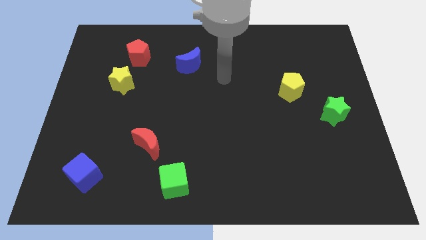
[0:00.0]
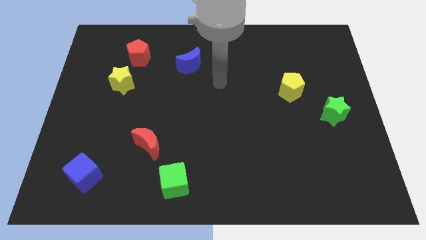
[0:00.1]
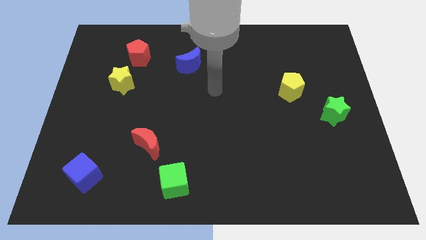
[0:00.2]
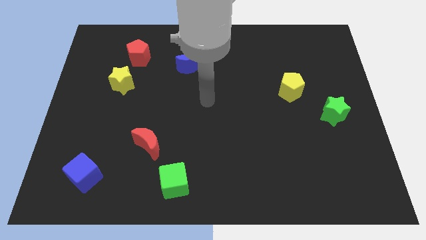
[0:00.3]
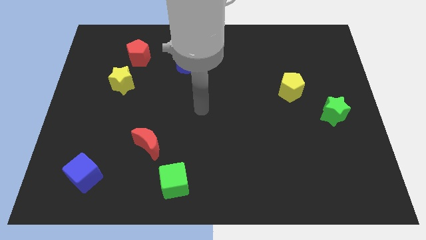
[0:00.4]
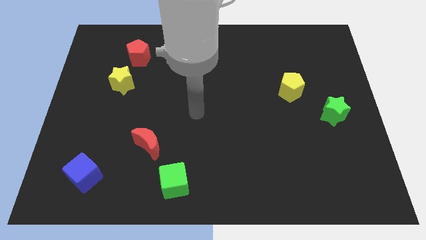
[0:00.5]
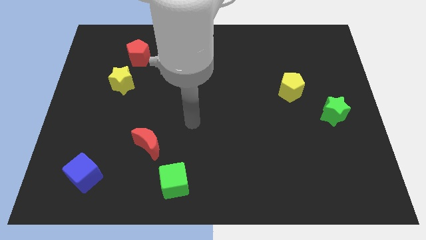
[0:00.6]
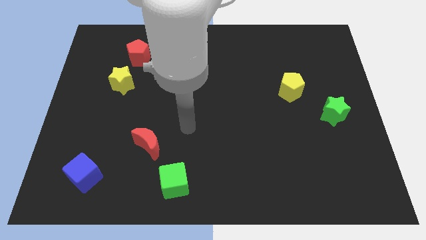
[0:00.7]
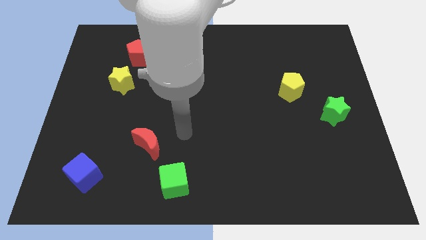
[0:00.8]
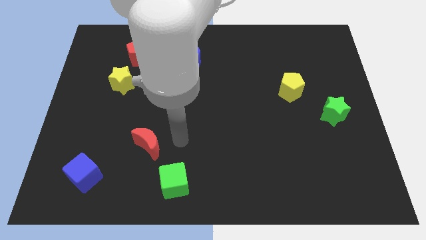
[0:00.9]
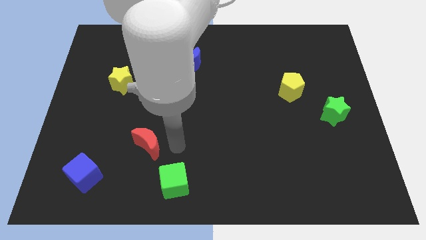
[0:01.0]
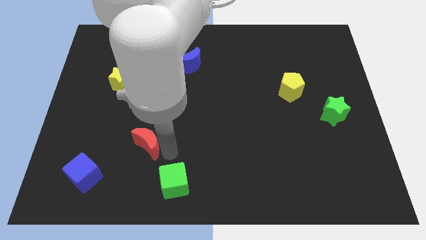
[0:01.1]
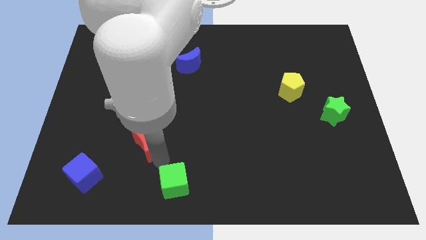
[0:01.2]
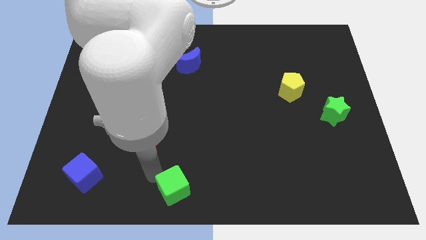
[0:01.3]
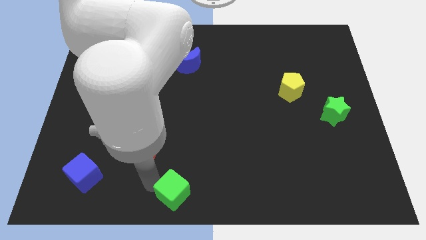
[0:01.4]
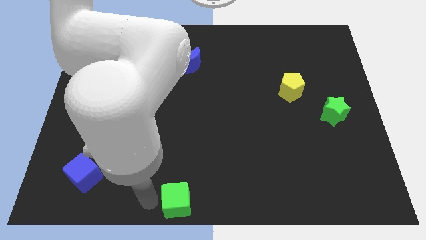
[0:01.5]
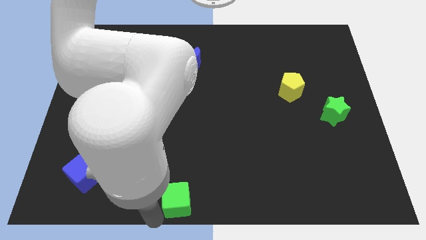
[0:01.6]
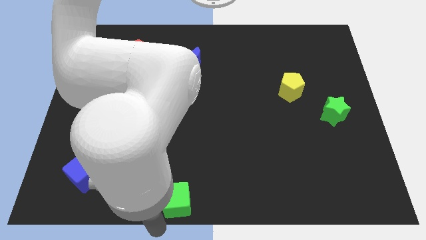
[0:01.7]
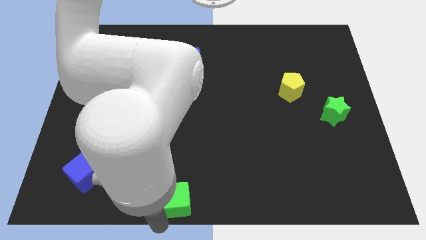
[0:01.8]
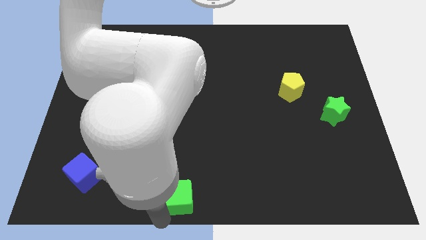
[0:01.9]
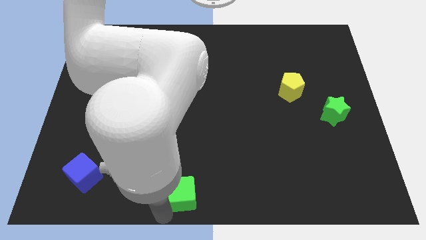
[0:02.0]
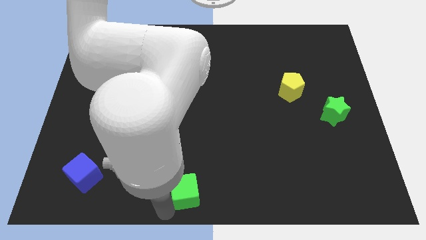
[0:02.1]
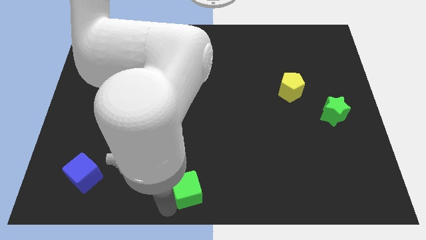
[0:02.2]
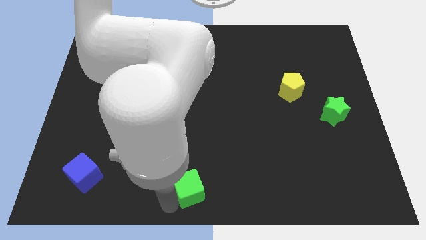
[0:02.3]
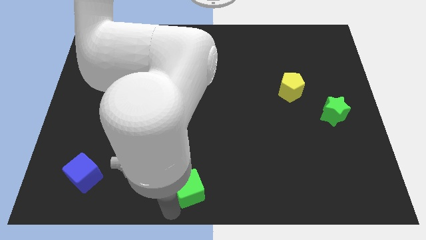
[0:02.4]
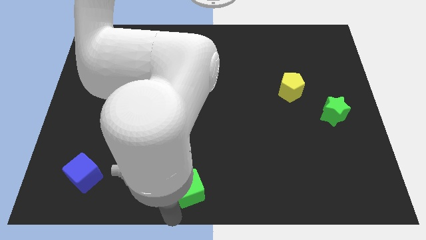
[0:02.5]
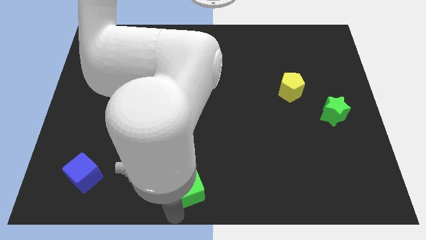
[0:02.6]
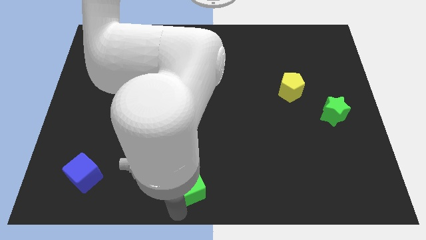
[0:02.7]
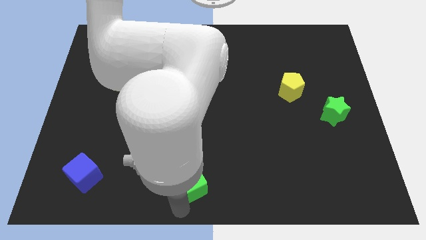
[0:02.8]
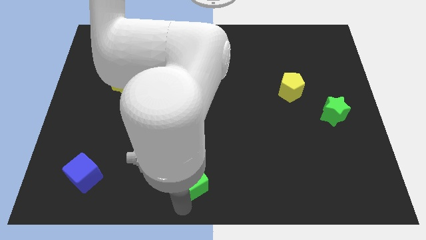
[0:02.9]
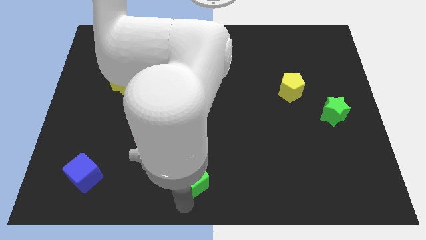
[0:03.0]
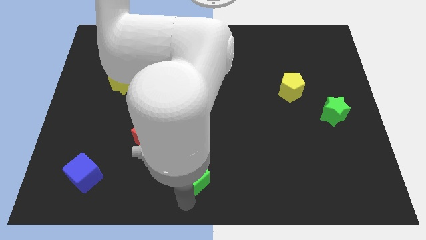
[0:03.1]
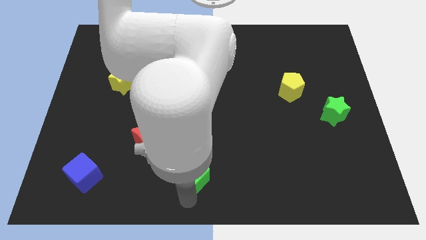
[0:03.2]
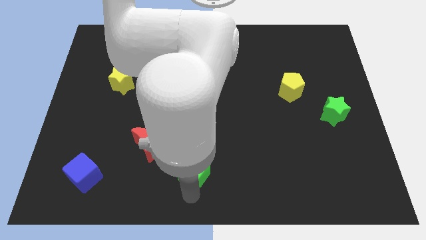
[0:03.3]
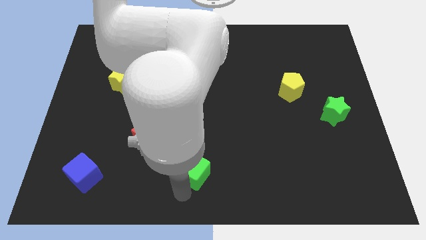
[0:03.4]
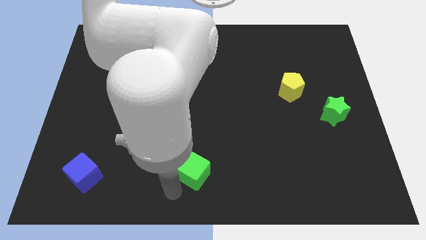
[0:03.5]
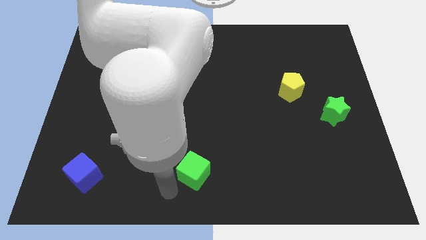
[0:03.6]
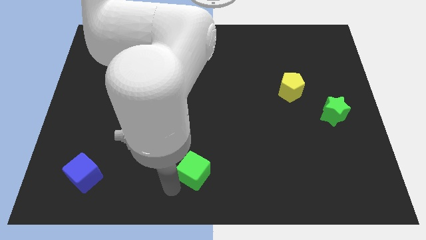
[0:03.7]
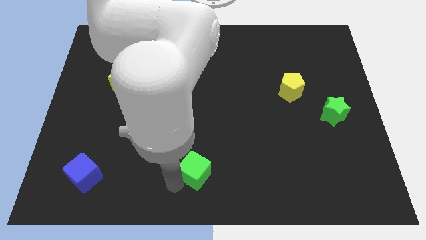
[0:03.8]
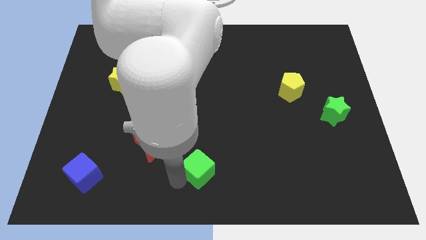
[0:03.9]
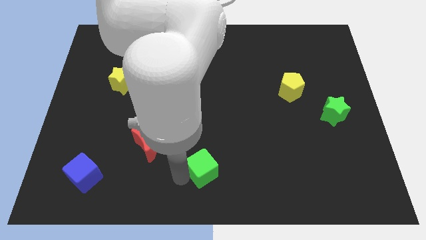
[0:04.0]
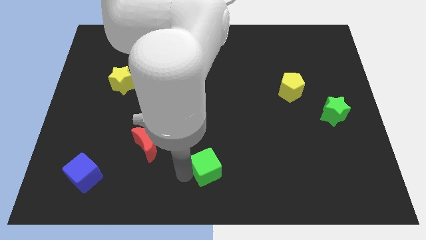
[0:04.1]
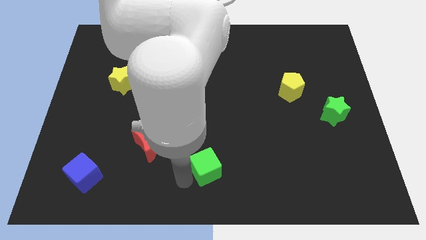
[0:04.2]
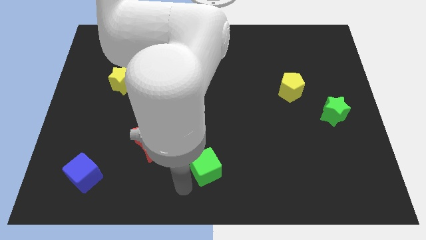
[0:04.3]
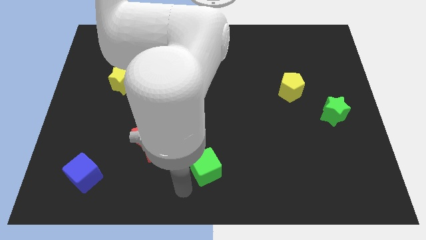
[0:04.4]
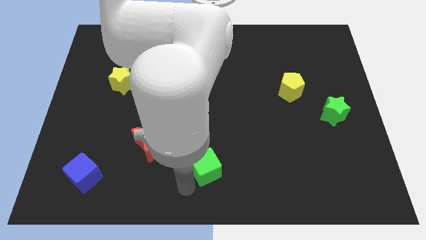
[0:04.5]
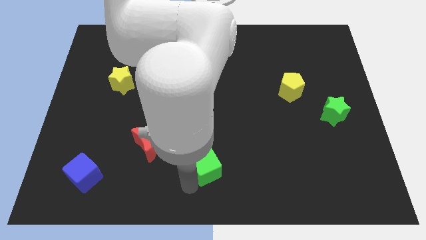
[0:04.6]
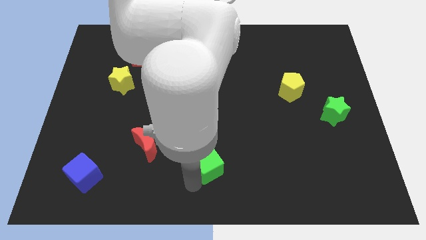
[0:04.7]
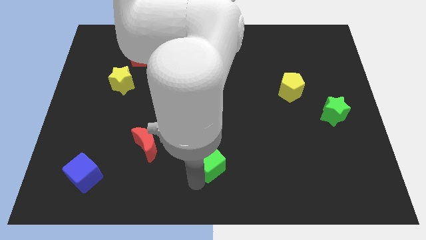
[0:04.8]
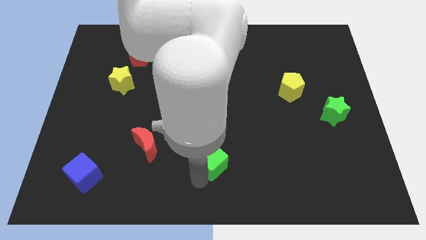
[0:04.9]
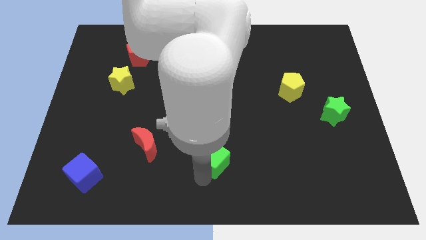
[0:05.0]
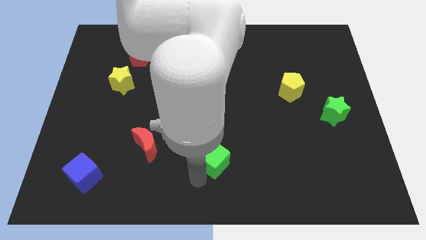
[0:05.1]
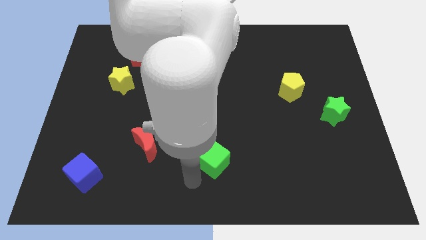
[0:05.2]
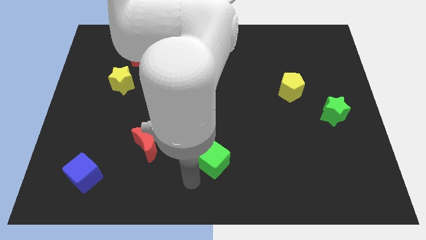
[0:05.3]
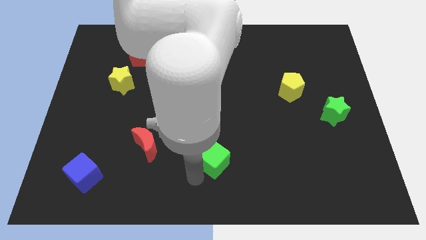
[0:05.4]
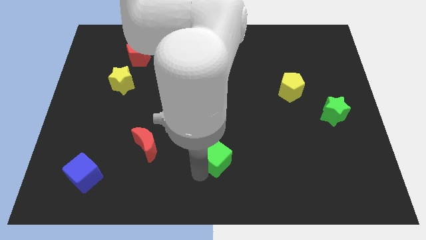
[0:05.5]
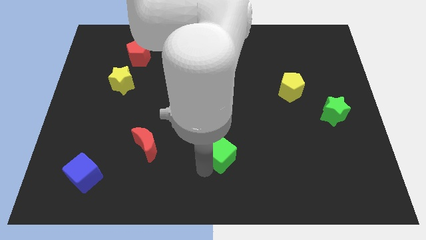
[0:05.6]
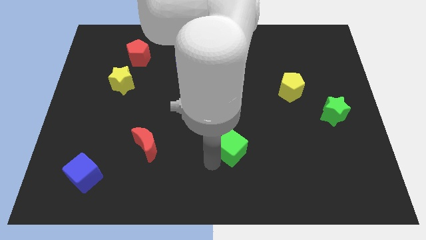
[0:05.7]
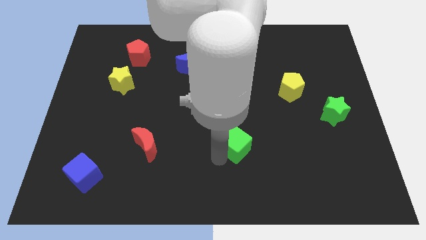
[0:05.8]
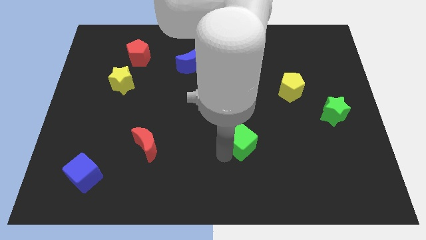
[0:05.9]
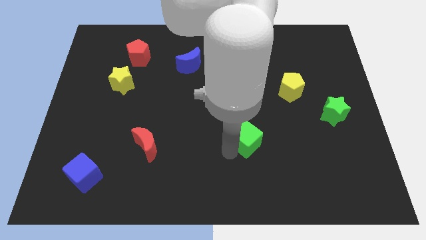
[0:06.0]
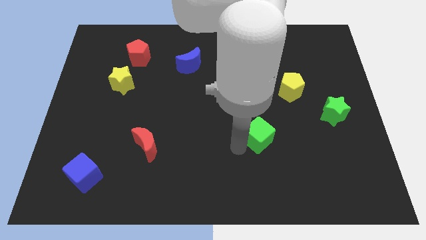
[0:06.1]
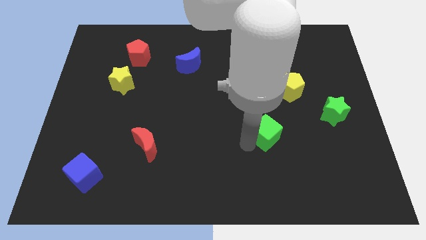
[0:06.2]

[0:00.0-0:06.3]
slide the green cube upwards and right diagonally

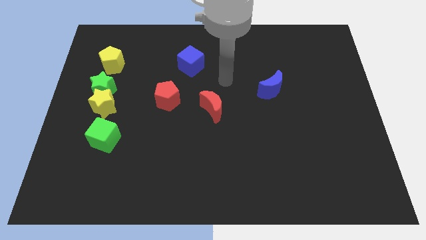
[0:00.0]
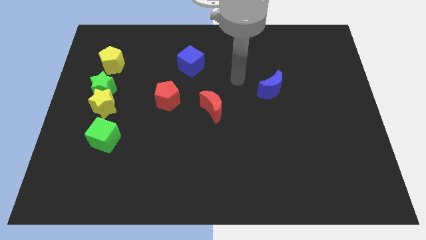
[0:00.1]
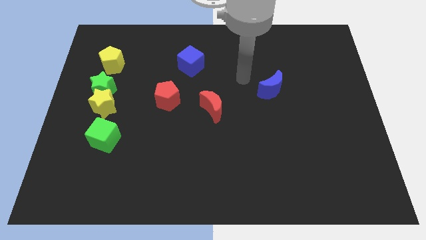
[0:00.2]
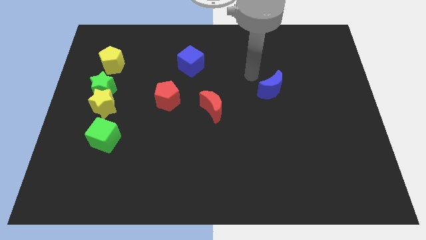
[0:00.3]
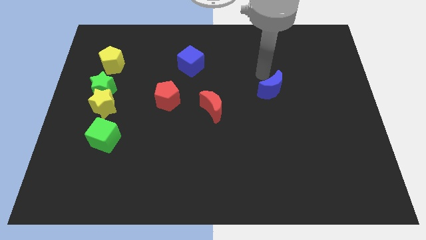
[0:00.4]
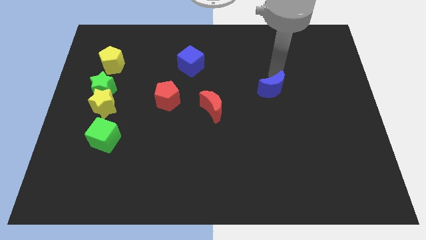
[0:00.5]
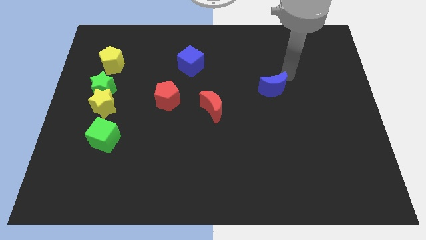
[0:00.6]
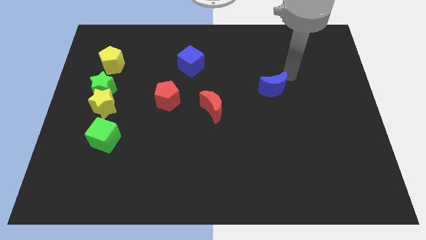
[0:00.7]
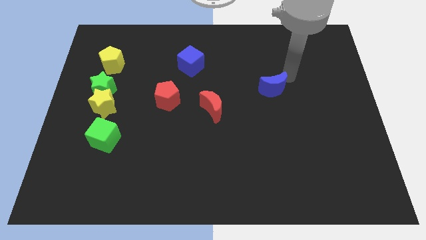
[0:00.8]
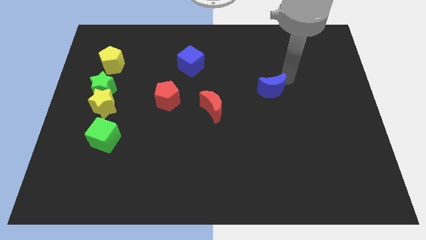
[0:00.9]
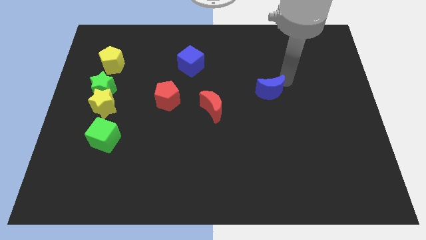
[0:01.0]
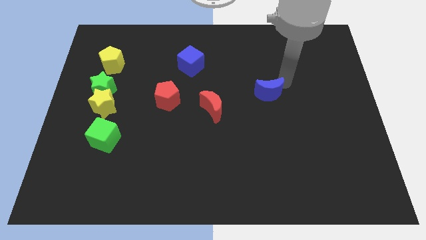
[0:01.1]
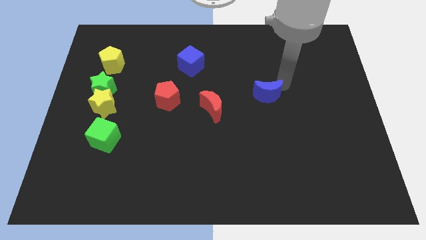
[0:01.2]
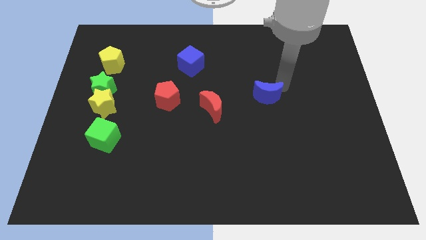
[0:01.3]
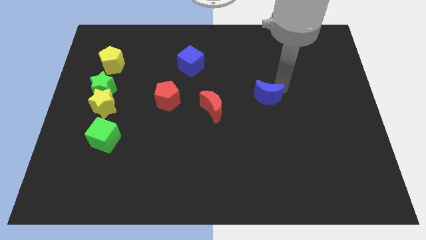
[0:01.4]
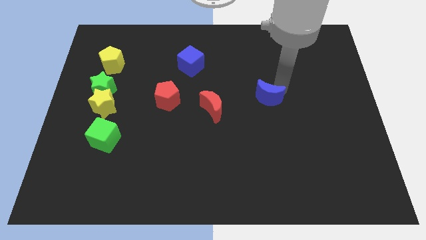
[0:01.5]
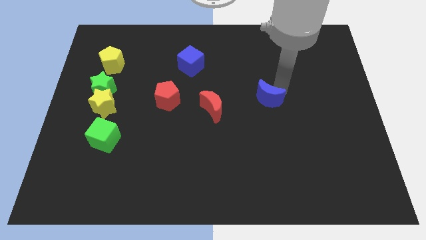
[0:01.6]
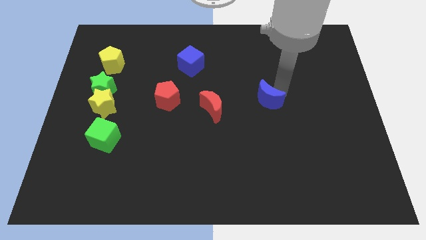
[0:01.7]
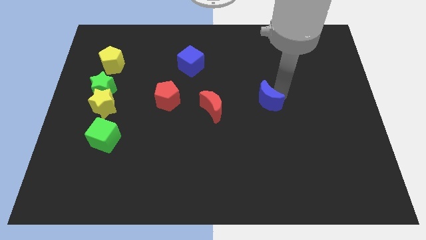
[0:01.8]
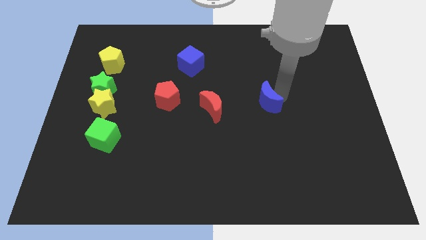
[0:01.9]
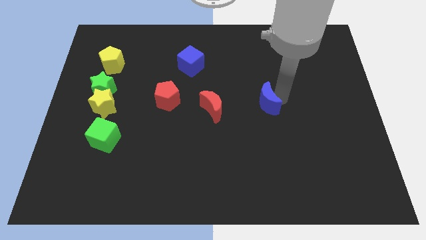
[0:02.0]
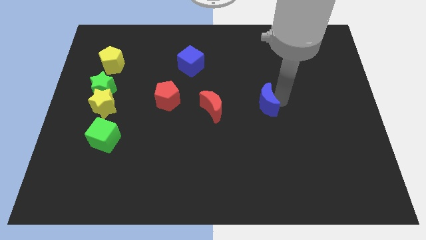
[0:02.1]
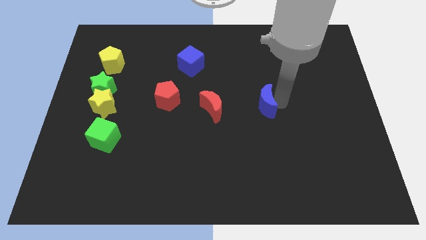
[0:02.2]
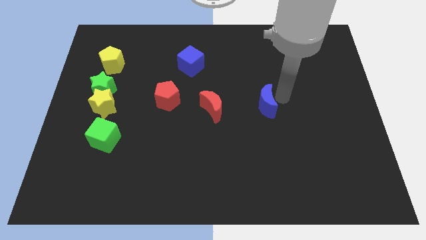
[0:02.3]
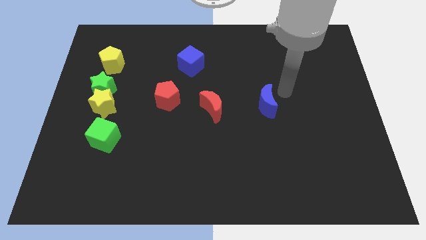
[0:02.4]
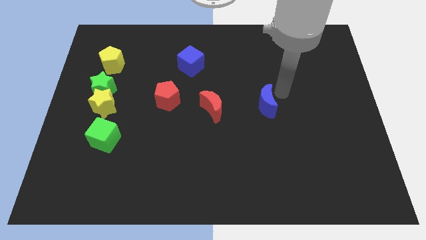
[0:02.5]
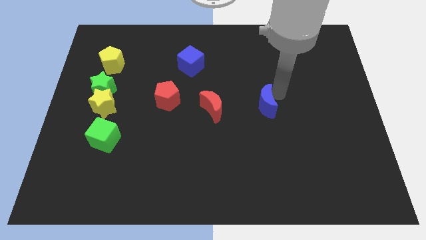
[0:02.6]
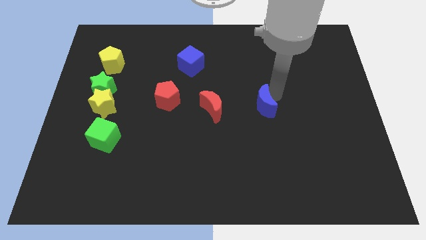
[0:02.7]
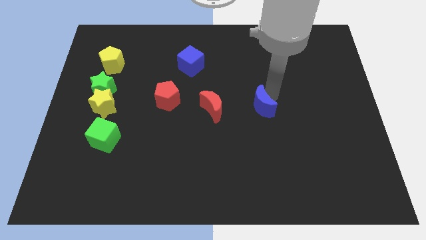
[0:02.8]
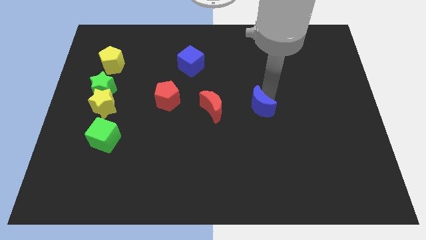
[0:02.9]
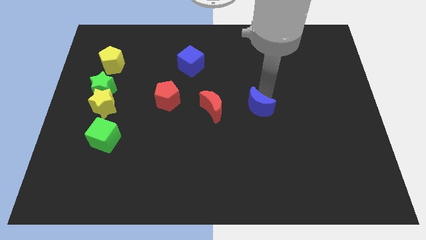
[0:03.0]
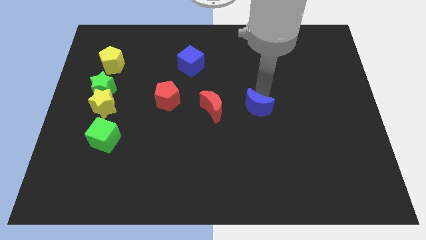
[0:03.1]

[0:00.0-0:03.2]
push the blue moon slightly down and then to the left
